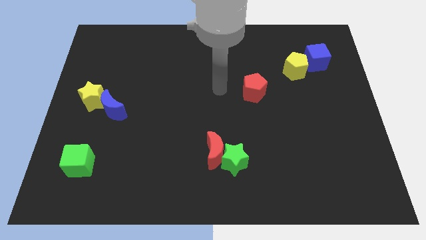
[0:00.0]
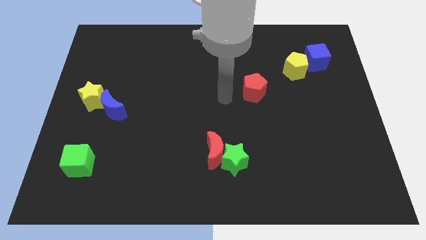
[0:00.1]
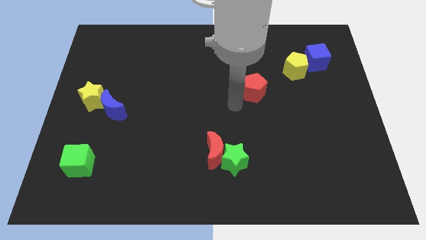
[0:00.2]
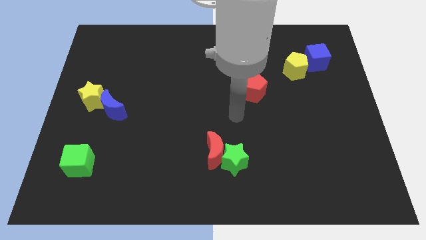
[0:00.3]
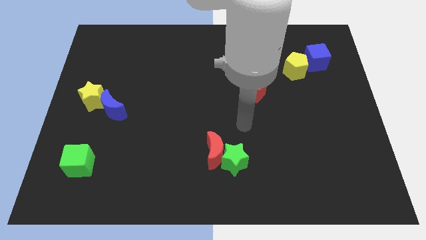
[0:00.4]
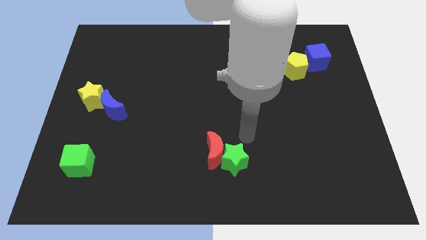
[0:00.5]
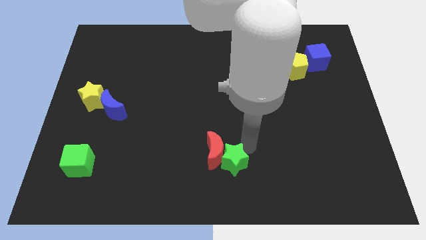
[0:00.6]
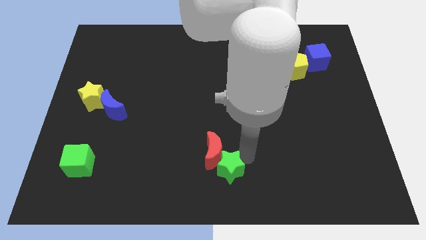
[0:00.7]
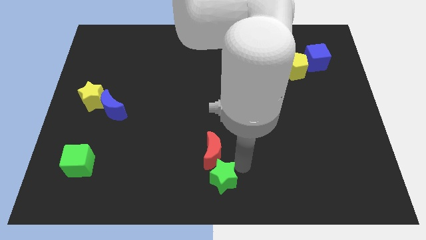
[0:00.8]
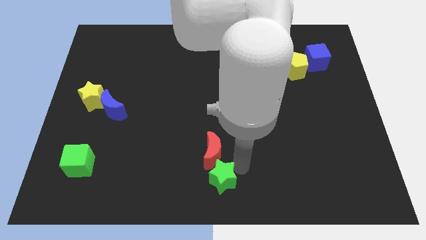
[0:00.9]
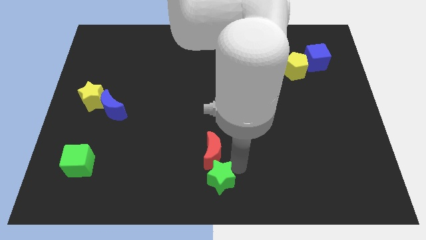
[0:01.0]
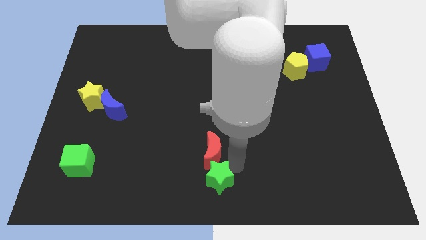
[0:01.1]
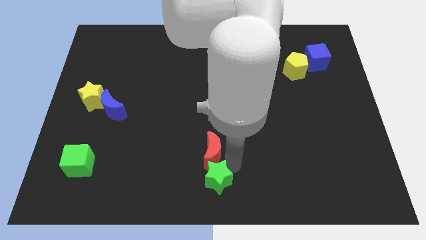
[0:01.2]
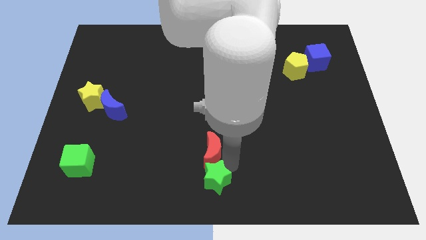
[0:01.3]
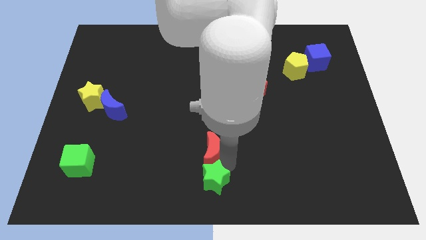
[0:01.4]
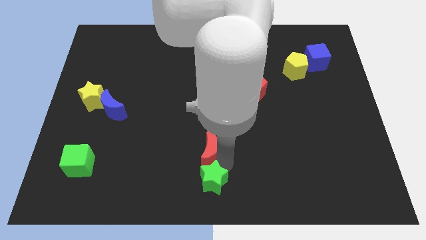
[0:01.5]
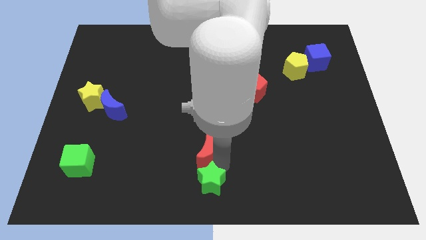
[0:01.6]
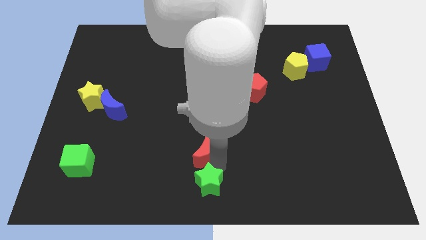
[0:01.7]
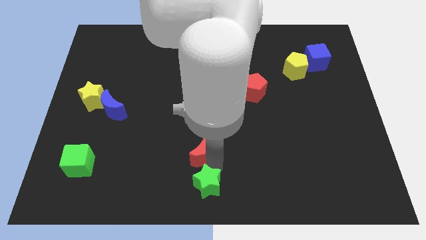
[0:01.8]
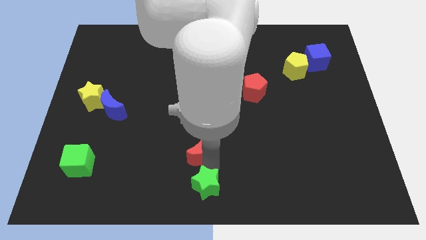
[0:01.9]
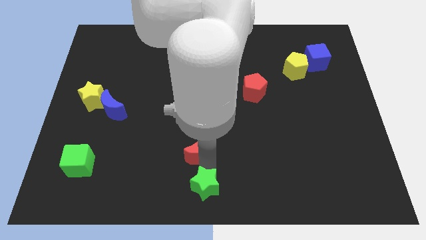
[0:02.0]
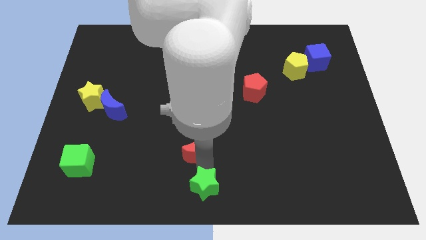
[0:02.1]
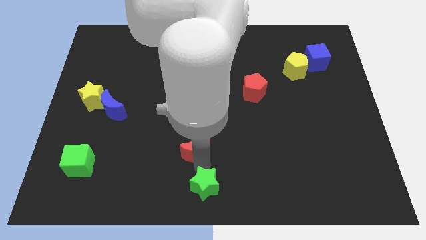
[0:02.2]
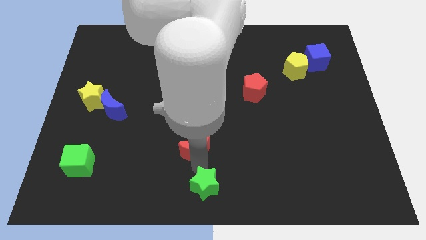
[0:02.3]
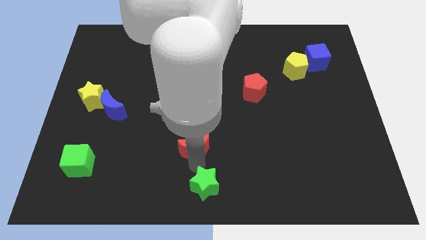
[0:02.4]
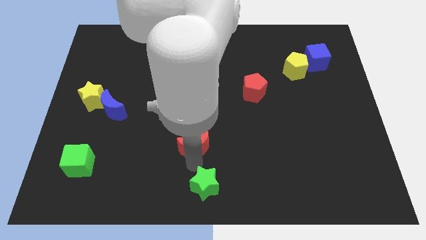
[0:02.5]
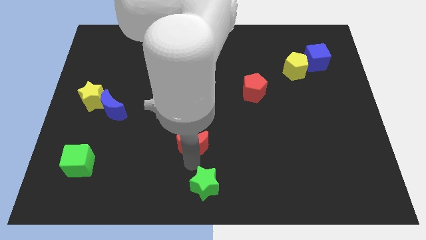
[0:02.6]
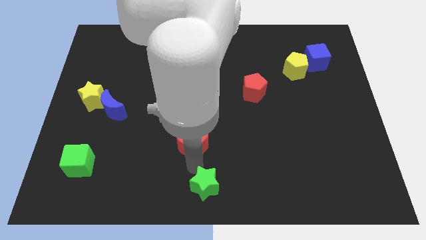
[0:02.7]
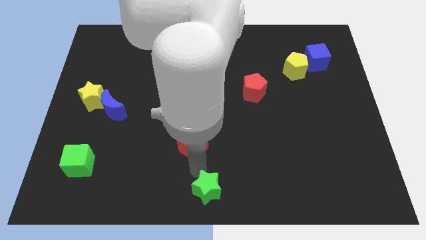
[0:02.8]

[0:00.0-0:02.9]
pull the red moon apart from the green star

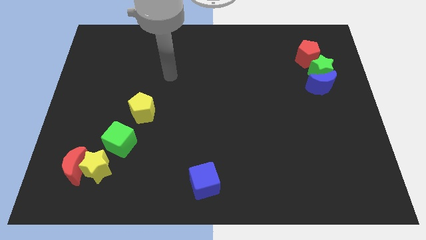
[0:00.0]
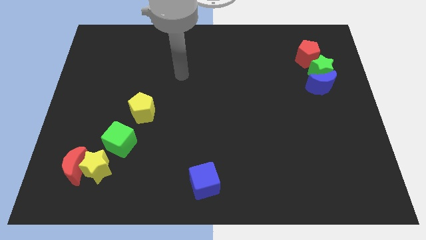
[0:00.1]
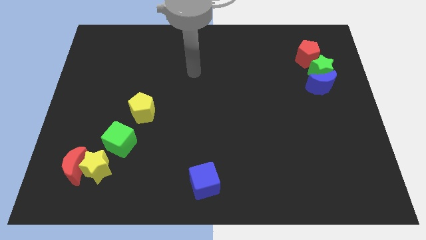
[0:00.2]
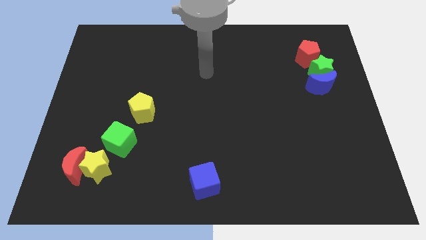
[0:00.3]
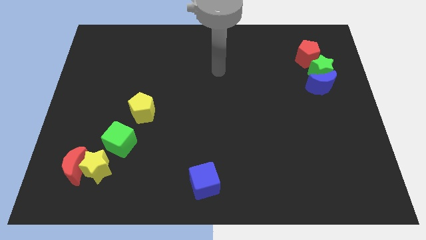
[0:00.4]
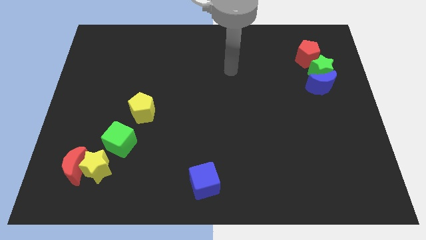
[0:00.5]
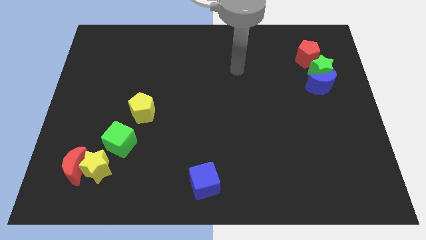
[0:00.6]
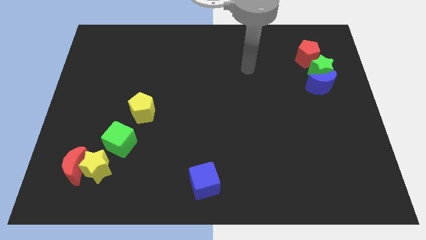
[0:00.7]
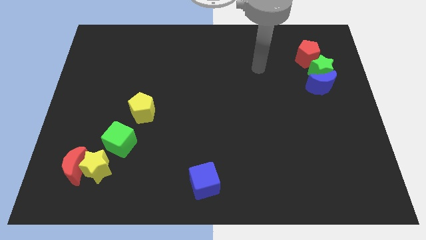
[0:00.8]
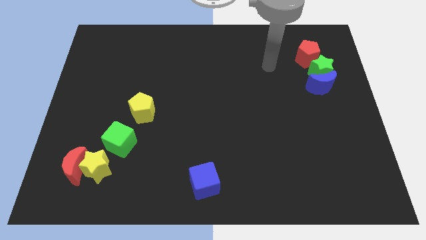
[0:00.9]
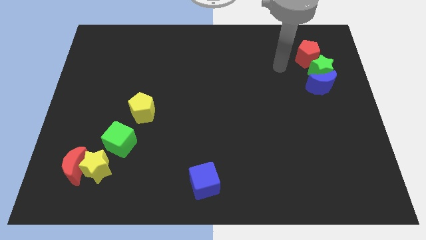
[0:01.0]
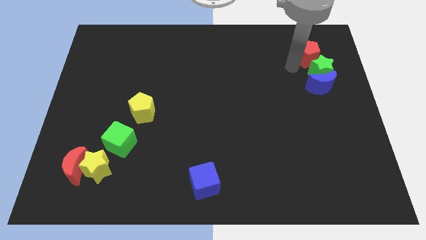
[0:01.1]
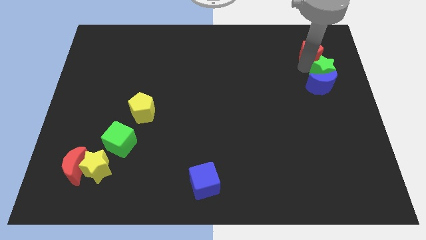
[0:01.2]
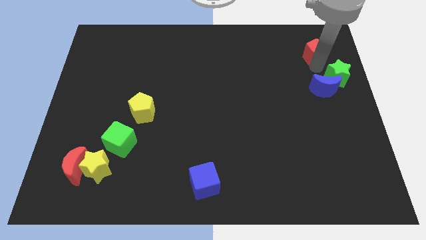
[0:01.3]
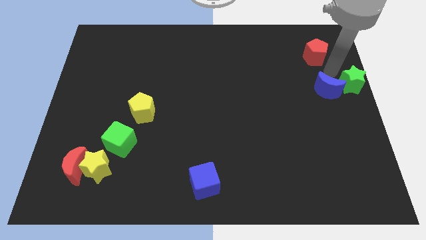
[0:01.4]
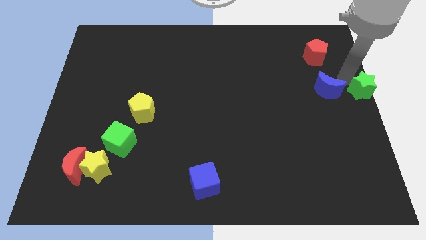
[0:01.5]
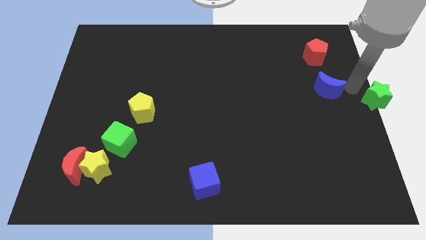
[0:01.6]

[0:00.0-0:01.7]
pull the blue moon apart from the green star

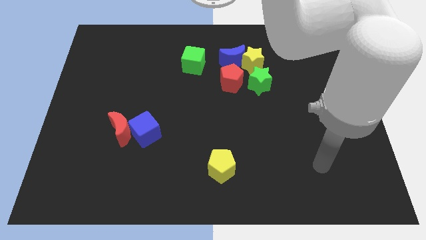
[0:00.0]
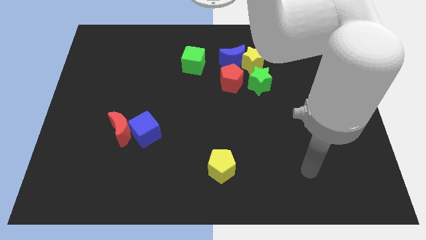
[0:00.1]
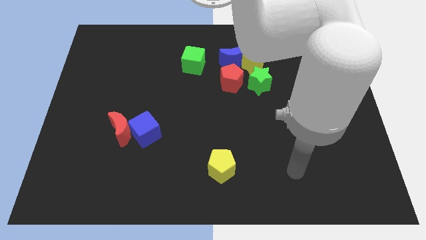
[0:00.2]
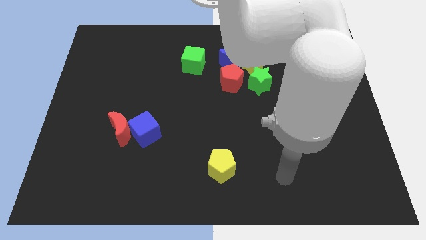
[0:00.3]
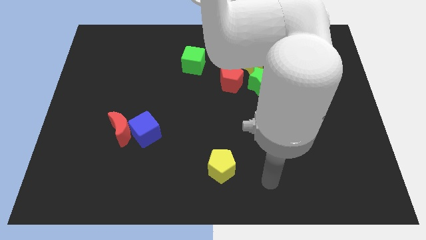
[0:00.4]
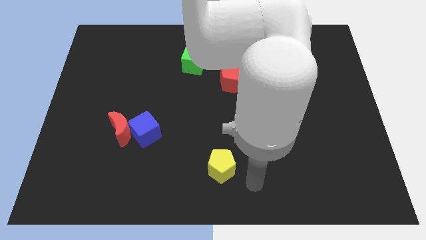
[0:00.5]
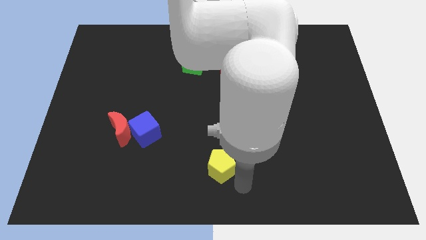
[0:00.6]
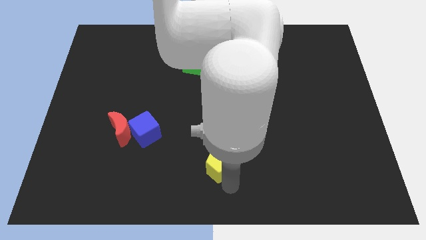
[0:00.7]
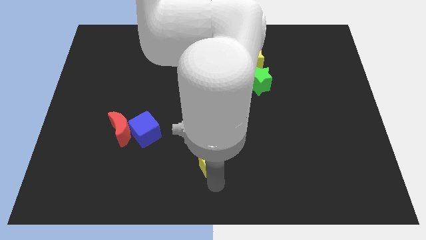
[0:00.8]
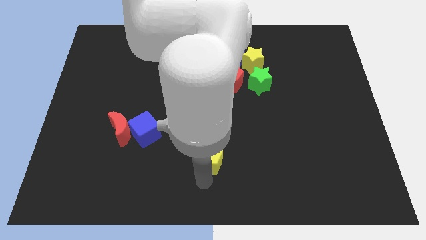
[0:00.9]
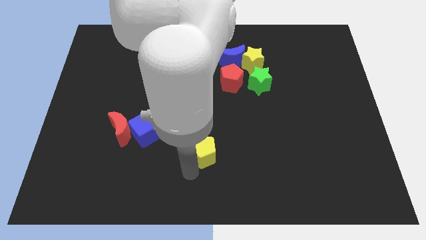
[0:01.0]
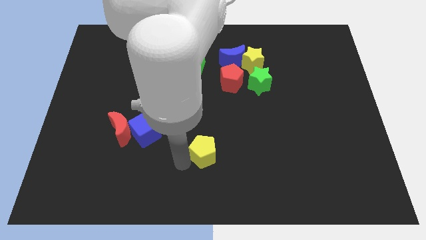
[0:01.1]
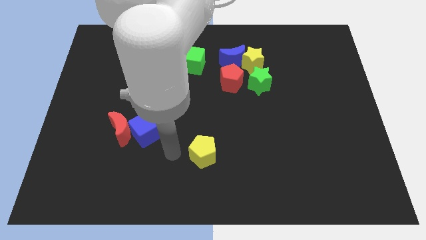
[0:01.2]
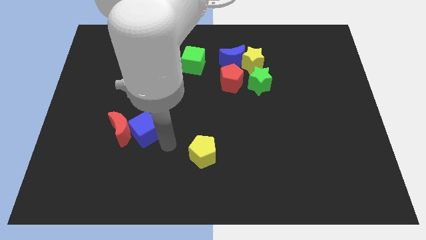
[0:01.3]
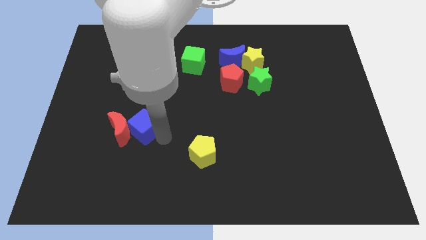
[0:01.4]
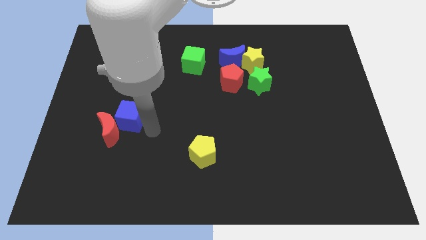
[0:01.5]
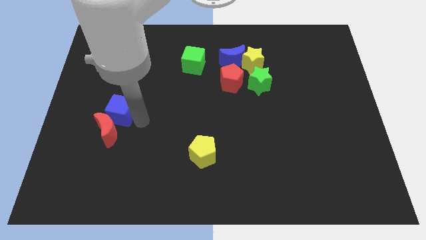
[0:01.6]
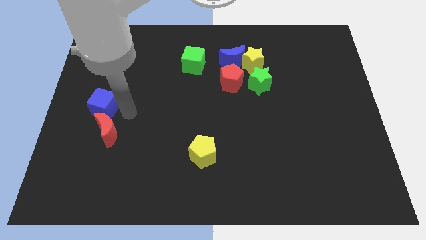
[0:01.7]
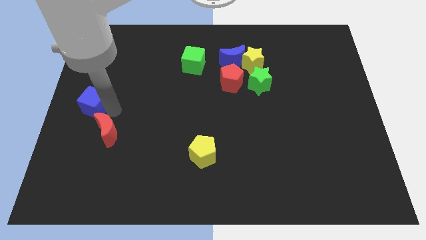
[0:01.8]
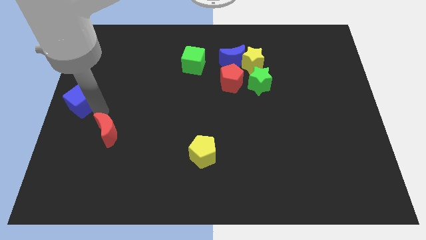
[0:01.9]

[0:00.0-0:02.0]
separate the red moon from the blue cube

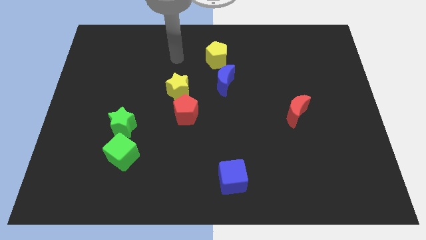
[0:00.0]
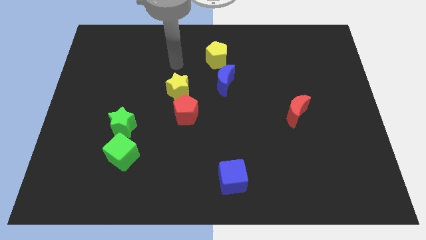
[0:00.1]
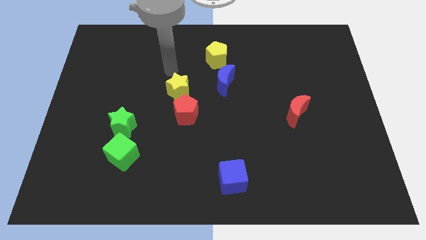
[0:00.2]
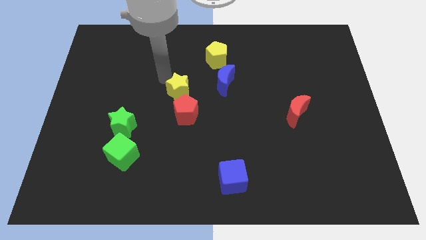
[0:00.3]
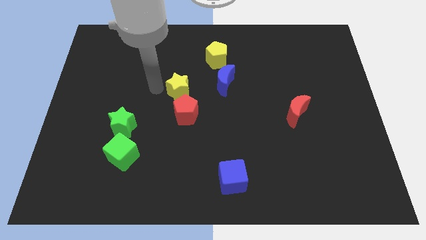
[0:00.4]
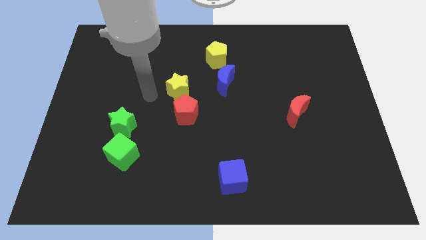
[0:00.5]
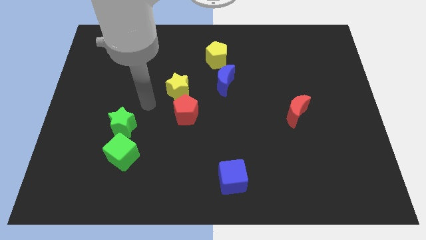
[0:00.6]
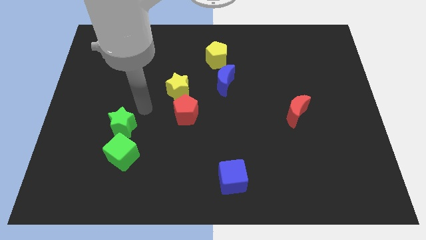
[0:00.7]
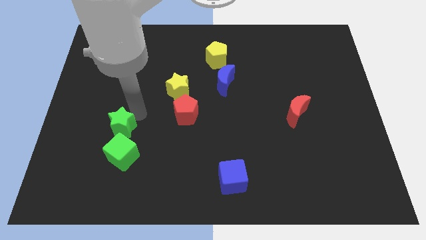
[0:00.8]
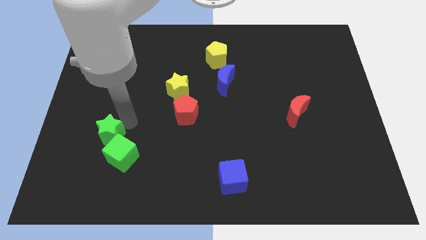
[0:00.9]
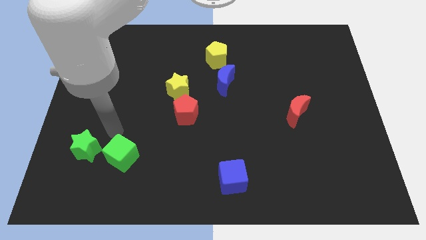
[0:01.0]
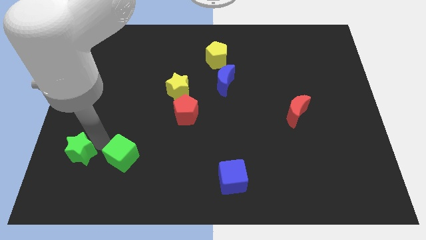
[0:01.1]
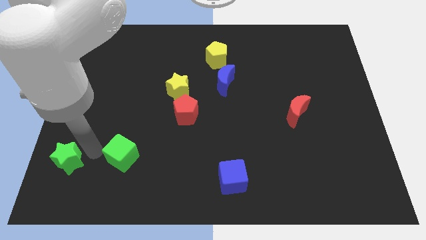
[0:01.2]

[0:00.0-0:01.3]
separate the green cube from the green star

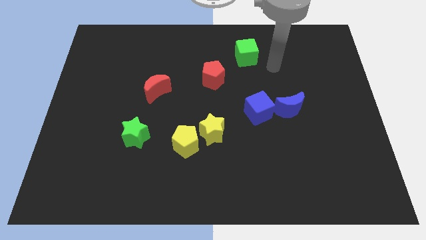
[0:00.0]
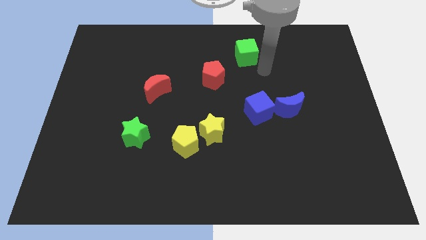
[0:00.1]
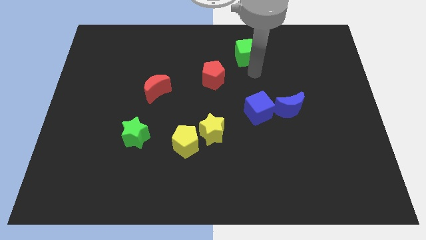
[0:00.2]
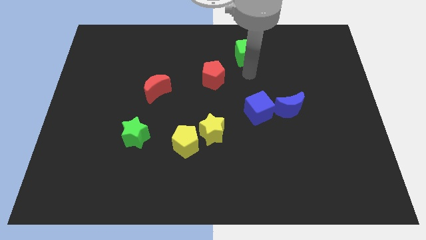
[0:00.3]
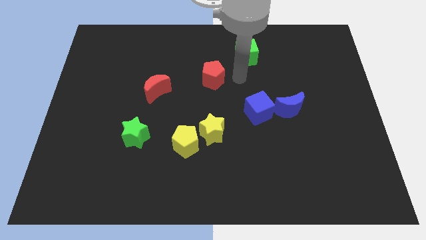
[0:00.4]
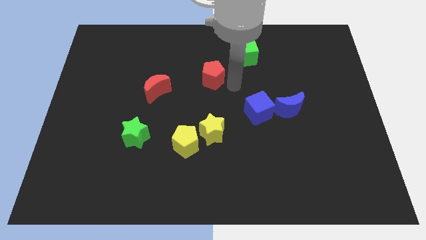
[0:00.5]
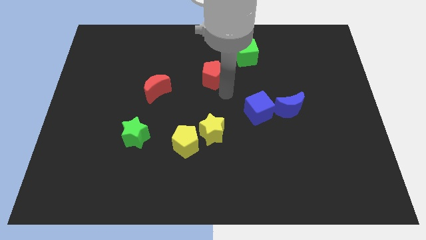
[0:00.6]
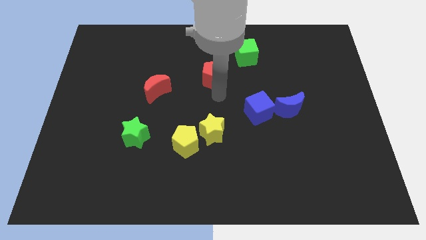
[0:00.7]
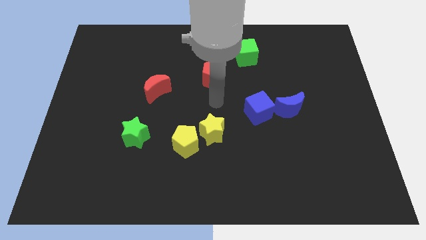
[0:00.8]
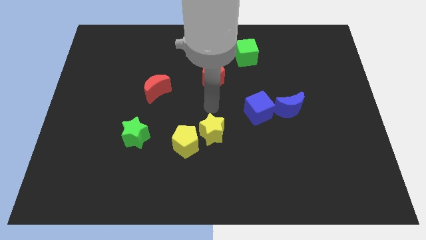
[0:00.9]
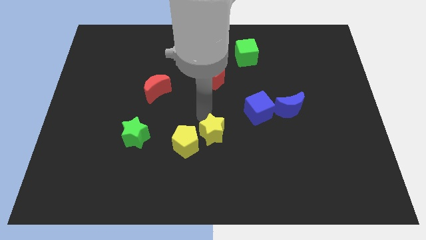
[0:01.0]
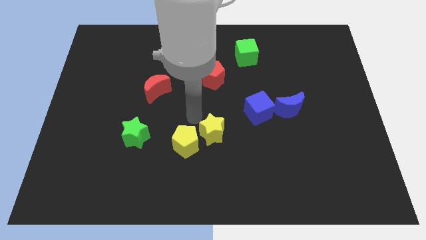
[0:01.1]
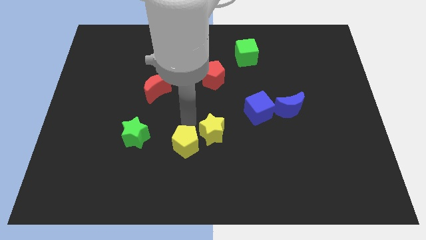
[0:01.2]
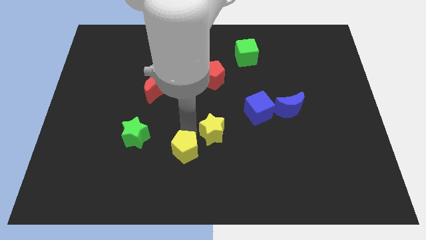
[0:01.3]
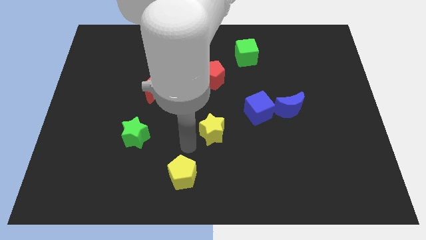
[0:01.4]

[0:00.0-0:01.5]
move the yellow star away from the yellow pentagon
